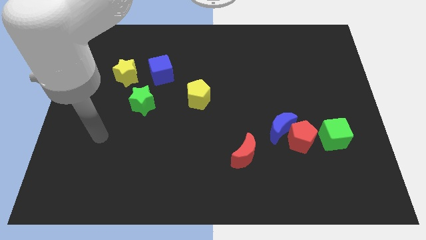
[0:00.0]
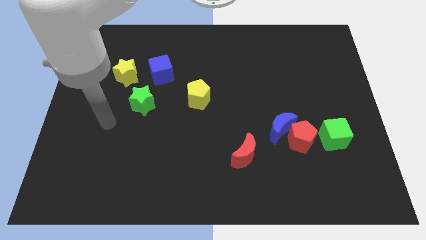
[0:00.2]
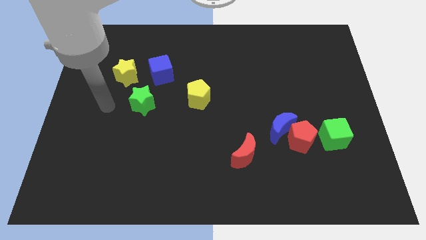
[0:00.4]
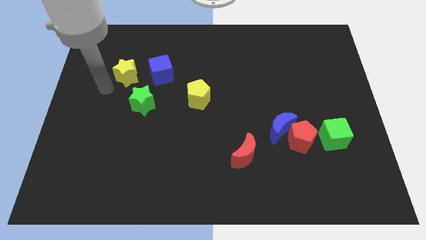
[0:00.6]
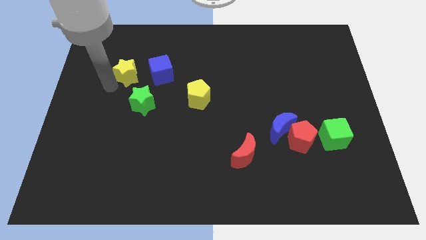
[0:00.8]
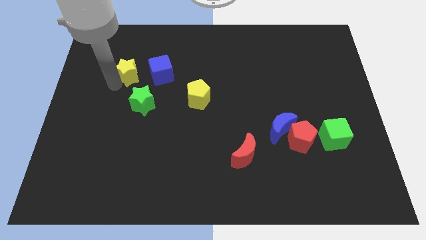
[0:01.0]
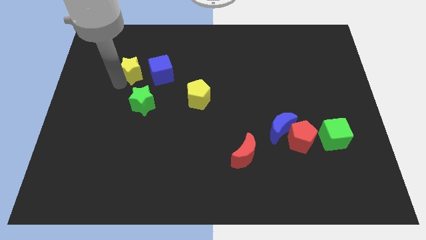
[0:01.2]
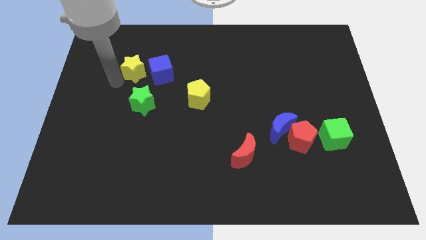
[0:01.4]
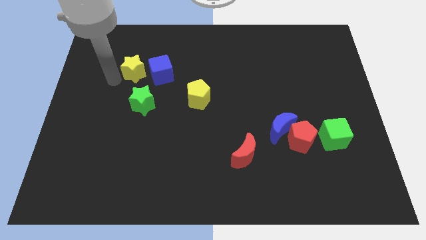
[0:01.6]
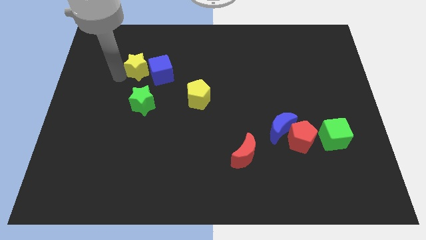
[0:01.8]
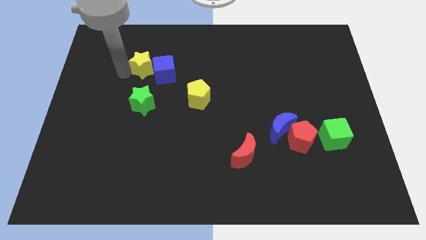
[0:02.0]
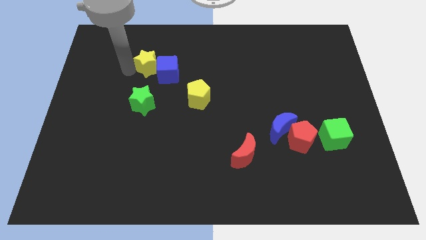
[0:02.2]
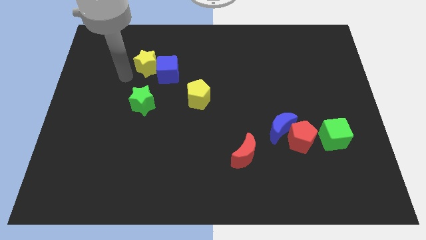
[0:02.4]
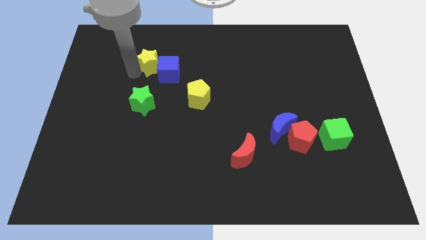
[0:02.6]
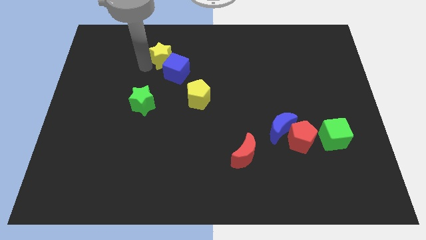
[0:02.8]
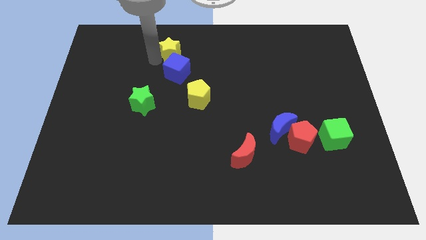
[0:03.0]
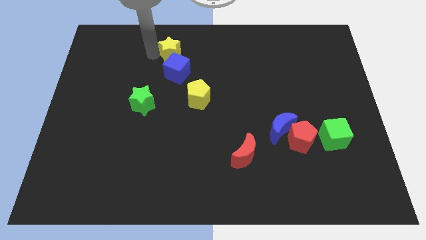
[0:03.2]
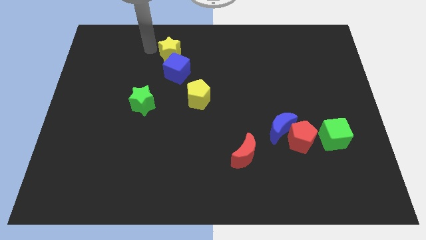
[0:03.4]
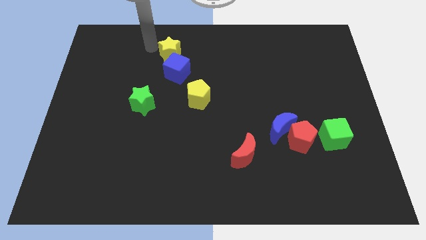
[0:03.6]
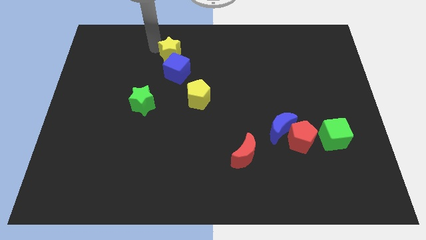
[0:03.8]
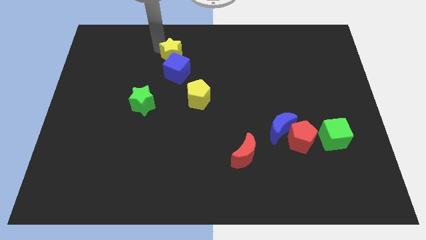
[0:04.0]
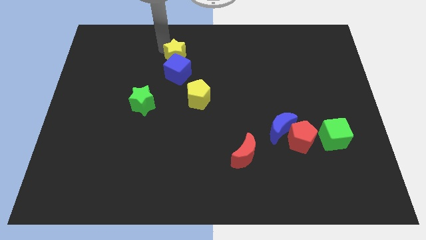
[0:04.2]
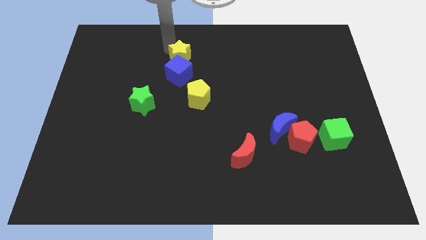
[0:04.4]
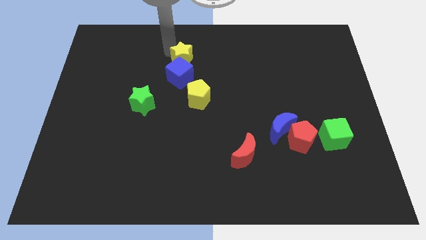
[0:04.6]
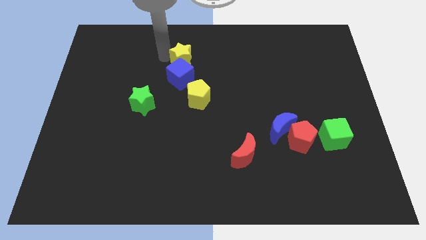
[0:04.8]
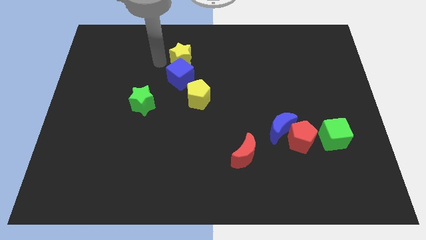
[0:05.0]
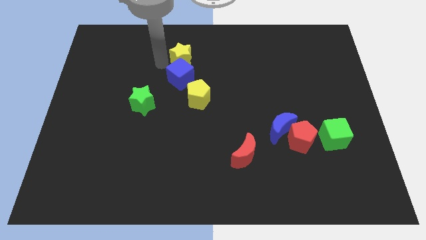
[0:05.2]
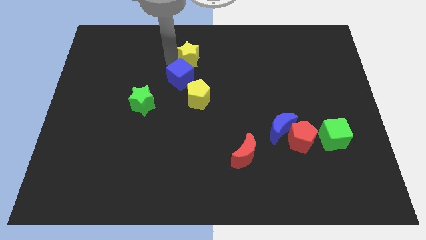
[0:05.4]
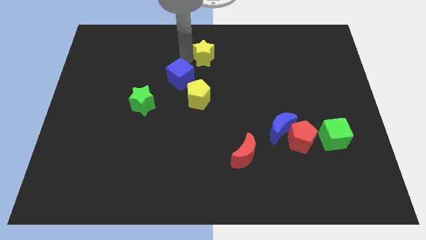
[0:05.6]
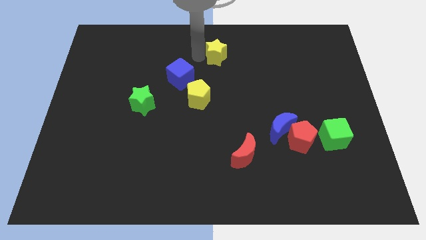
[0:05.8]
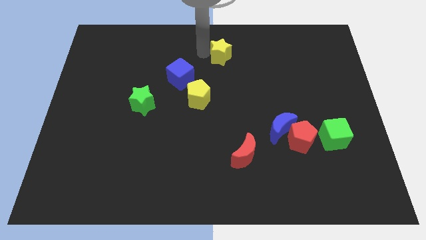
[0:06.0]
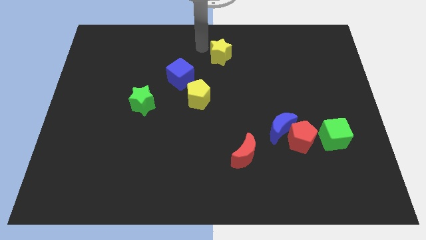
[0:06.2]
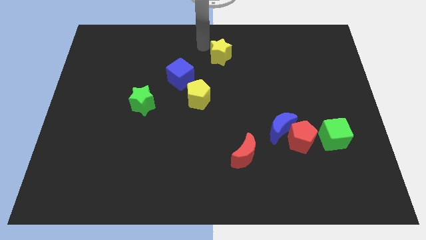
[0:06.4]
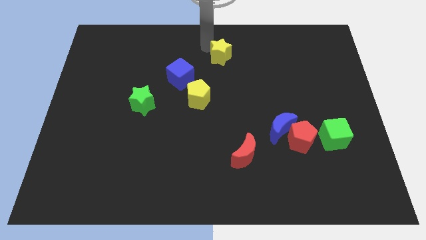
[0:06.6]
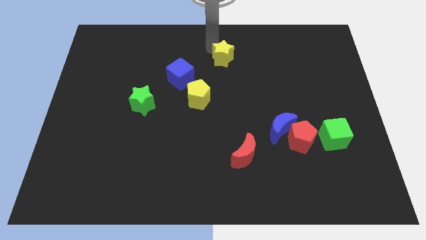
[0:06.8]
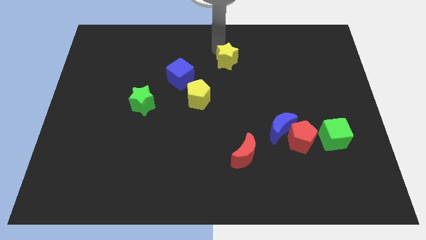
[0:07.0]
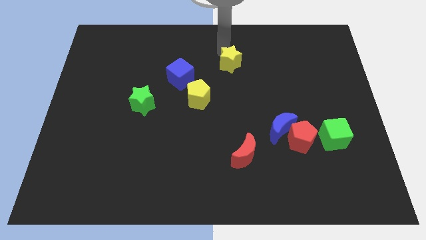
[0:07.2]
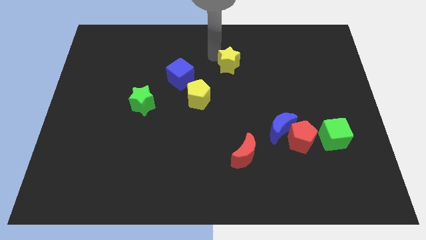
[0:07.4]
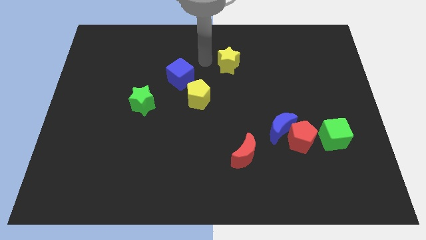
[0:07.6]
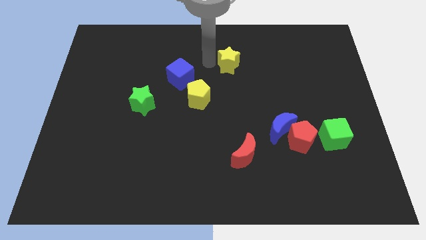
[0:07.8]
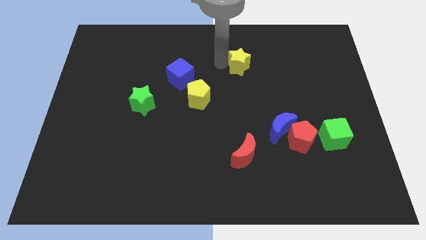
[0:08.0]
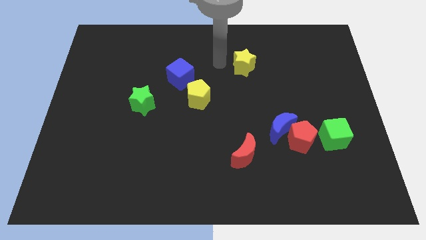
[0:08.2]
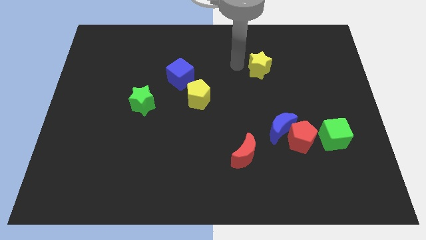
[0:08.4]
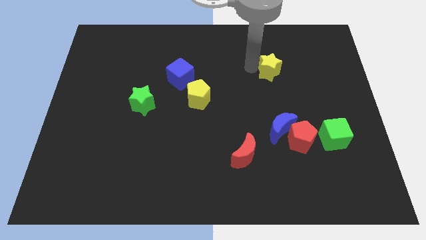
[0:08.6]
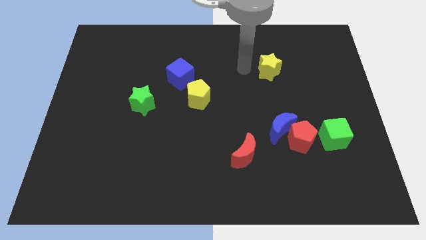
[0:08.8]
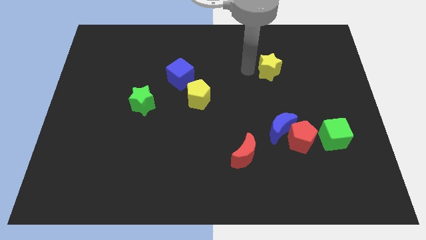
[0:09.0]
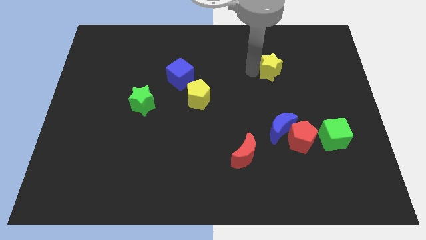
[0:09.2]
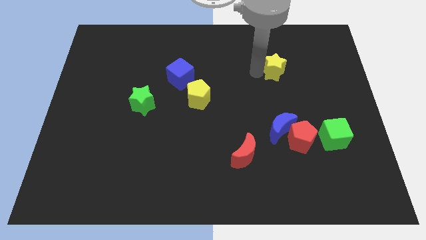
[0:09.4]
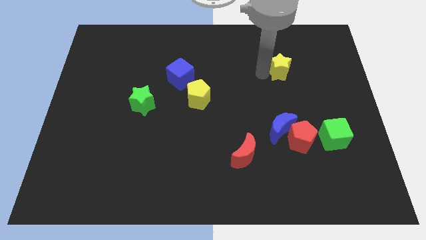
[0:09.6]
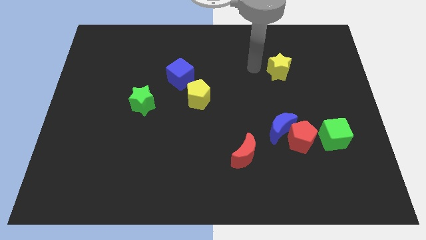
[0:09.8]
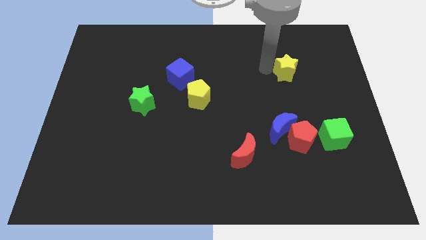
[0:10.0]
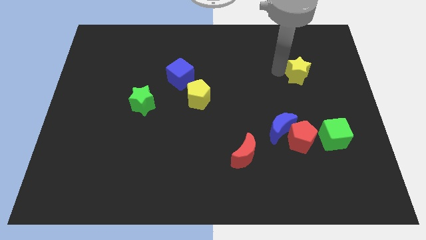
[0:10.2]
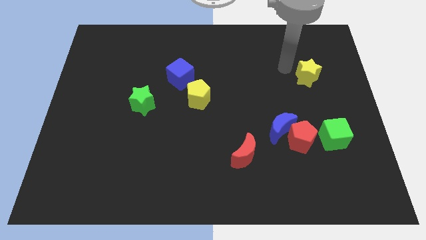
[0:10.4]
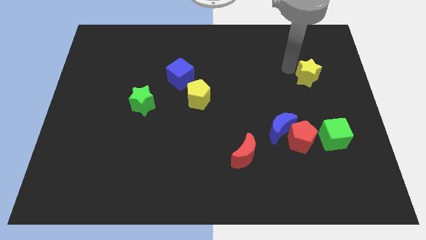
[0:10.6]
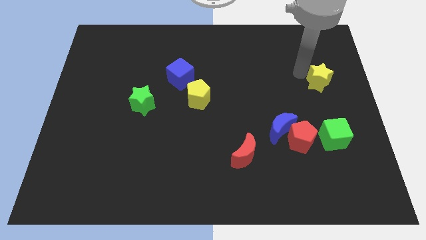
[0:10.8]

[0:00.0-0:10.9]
move the yellow star to the right side

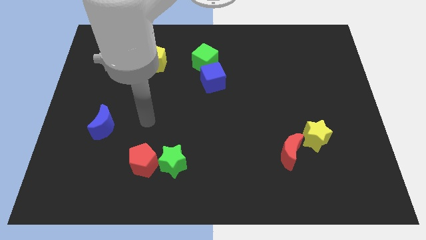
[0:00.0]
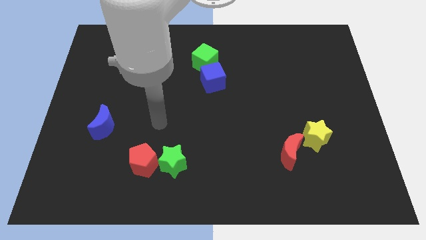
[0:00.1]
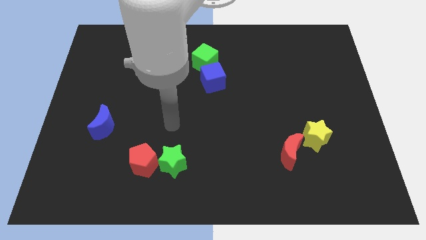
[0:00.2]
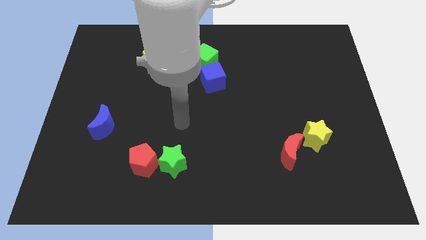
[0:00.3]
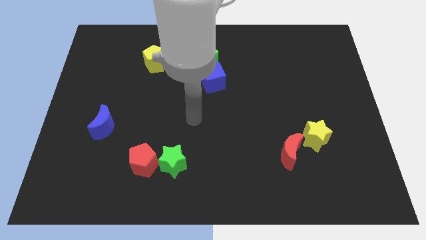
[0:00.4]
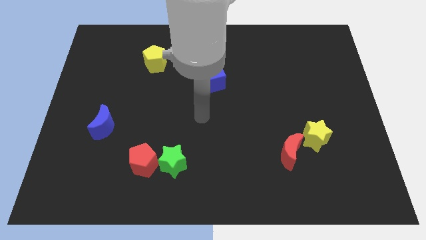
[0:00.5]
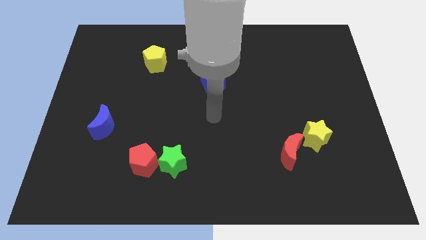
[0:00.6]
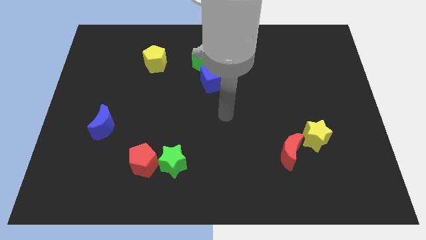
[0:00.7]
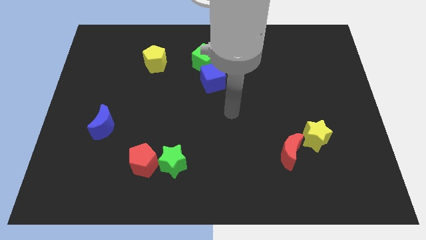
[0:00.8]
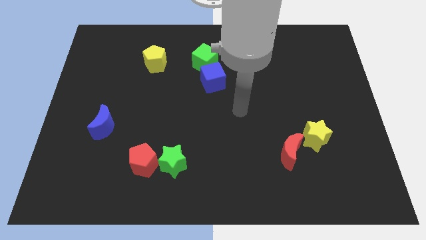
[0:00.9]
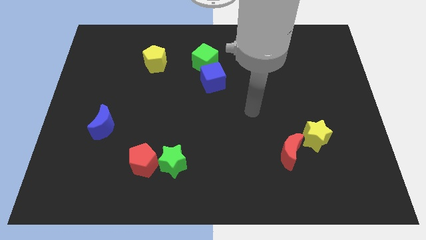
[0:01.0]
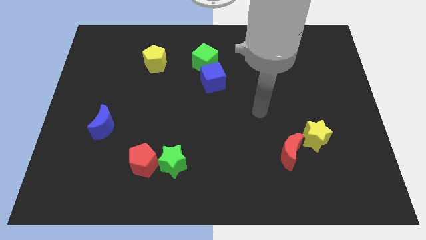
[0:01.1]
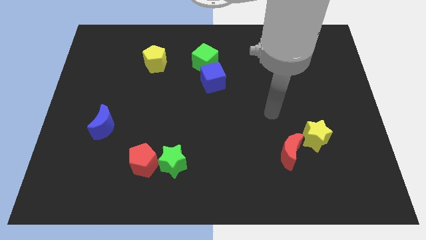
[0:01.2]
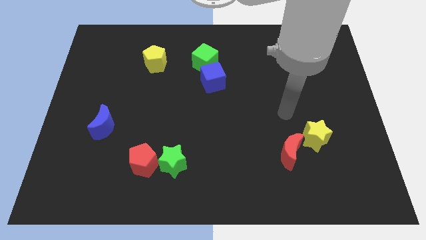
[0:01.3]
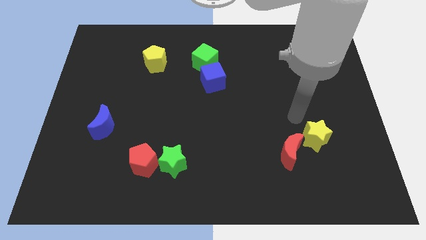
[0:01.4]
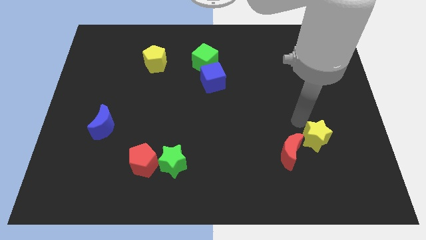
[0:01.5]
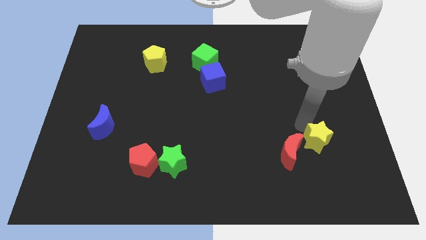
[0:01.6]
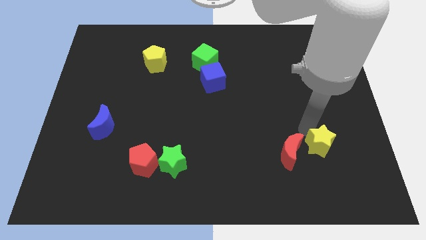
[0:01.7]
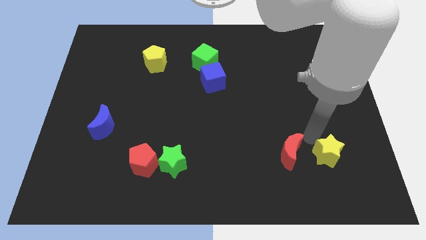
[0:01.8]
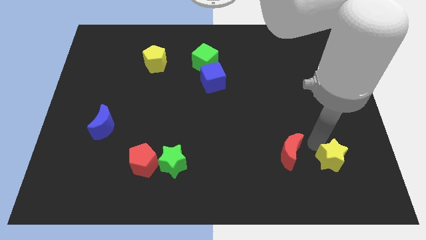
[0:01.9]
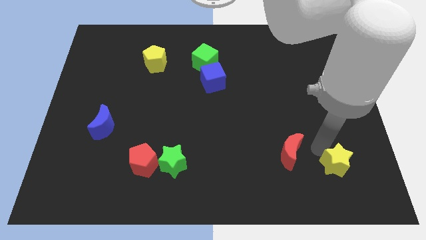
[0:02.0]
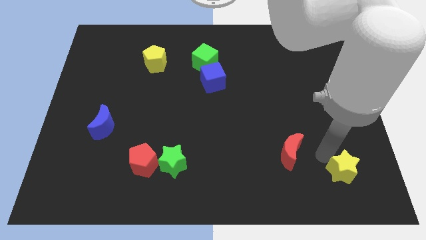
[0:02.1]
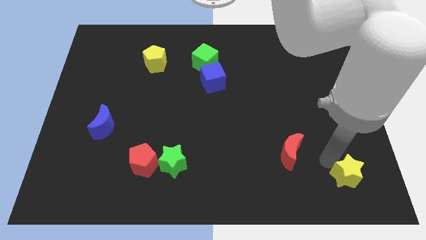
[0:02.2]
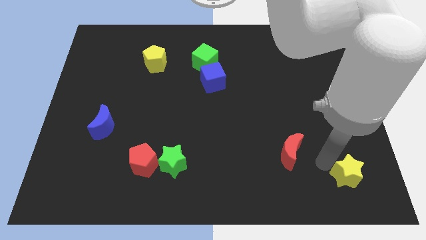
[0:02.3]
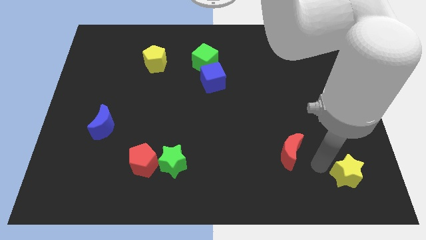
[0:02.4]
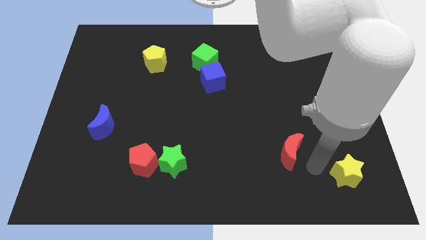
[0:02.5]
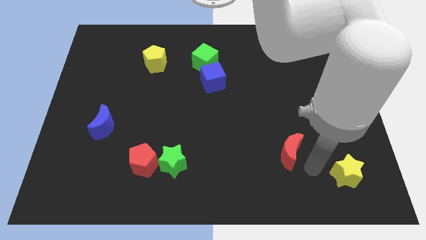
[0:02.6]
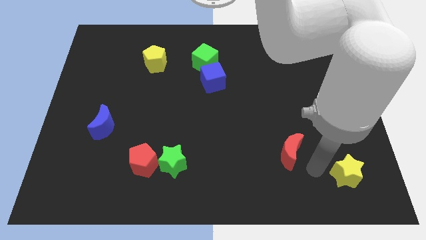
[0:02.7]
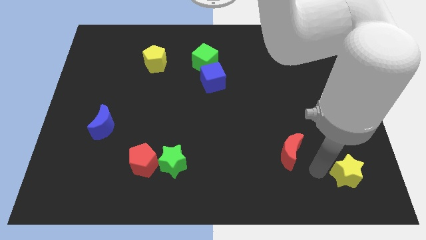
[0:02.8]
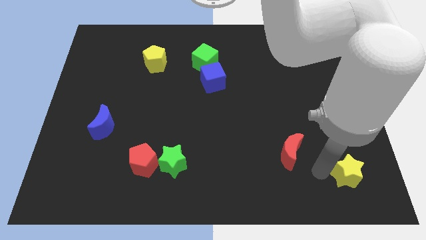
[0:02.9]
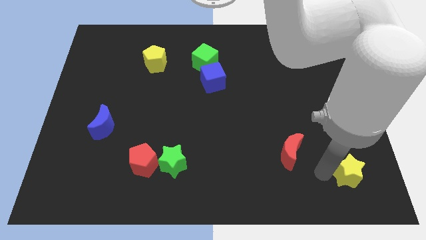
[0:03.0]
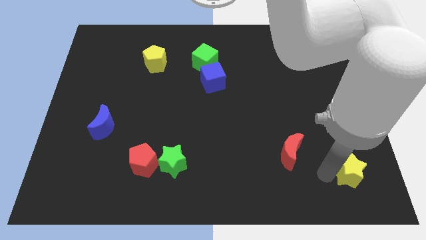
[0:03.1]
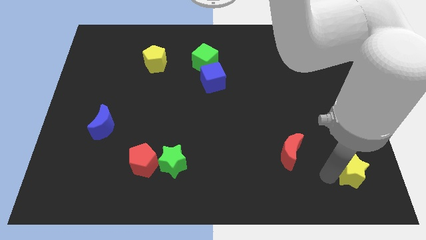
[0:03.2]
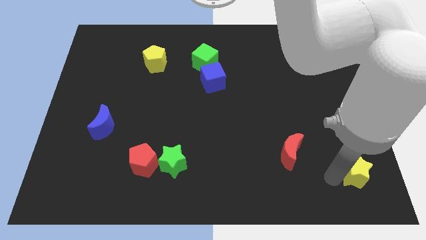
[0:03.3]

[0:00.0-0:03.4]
put the yellow star to the bottom right
